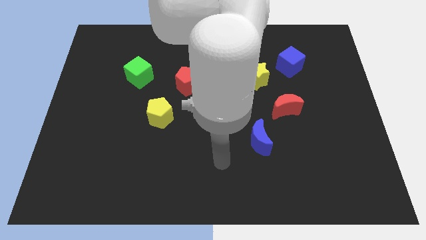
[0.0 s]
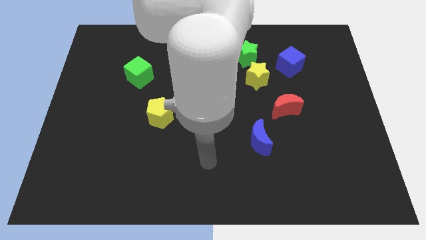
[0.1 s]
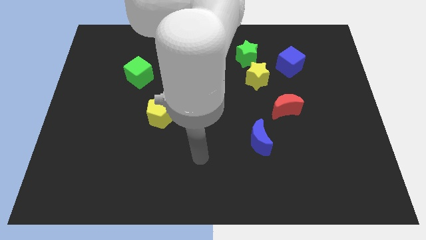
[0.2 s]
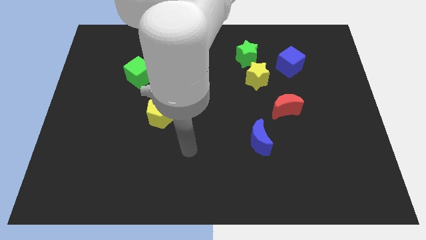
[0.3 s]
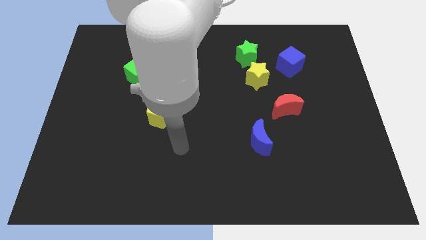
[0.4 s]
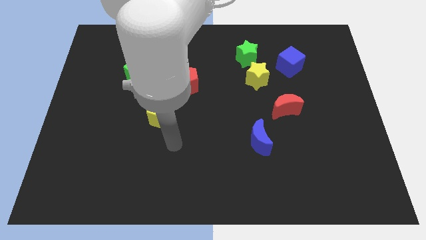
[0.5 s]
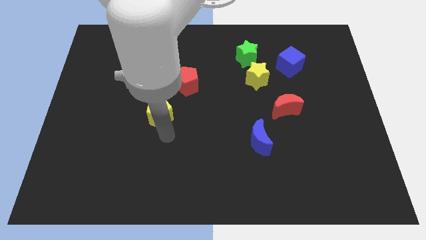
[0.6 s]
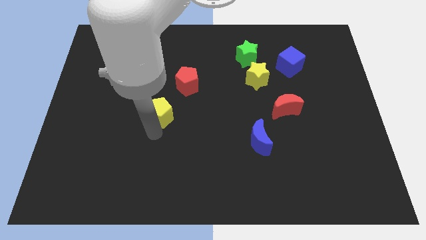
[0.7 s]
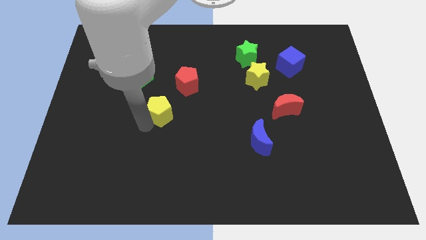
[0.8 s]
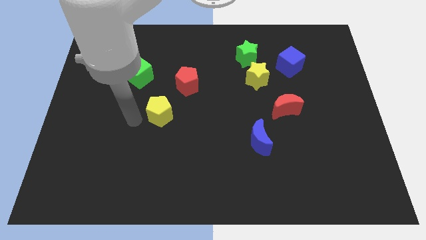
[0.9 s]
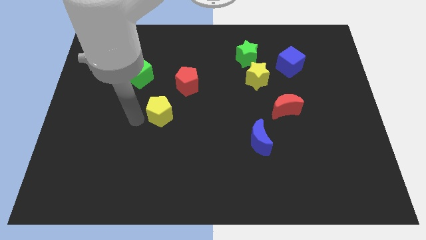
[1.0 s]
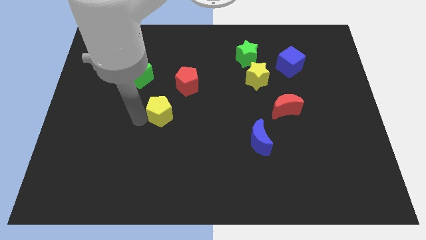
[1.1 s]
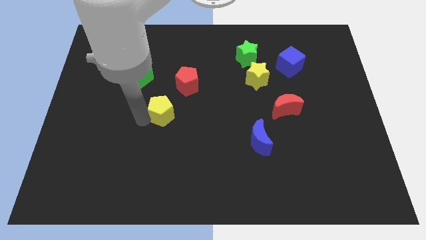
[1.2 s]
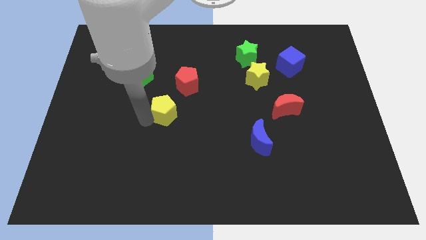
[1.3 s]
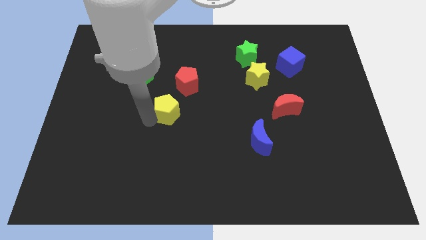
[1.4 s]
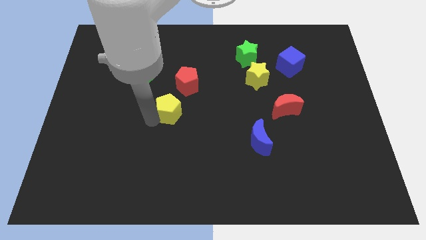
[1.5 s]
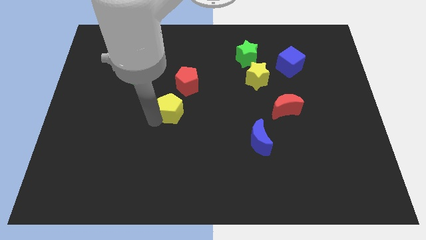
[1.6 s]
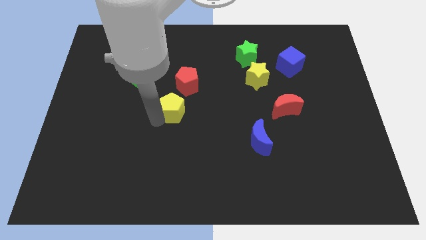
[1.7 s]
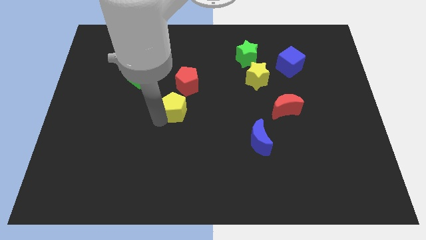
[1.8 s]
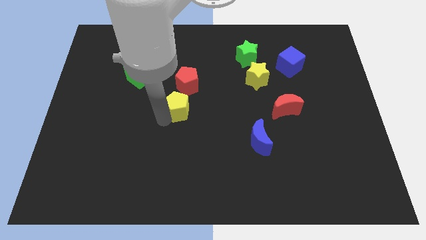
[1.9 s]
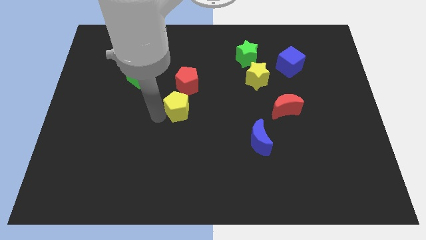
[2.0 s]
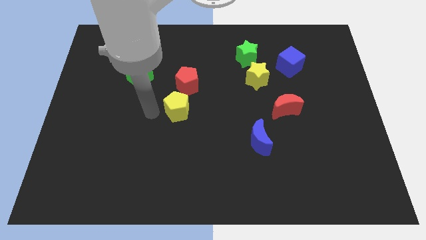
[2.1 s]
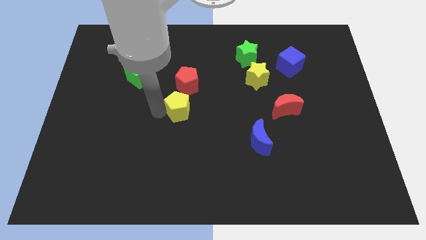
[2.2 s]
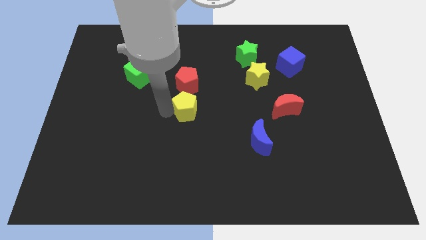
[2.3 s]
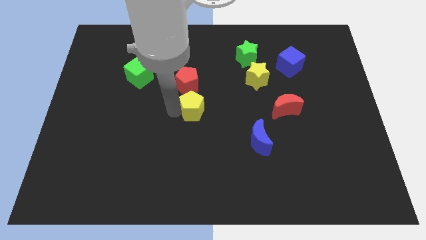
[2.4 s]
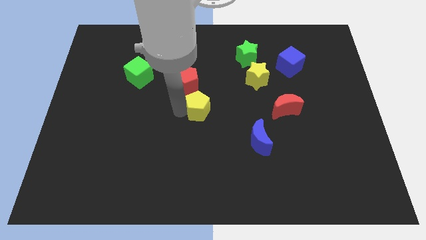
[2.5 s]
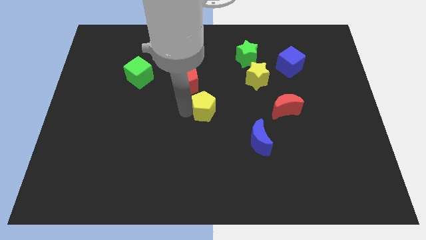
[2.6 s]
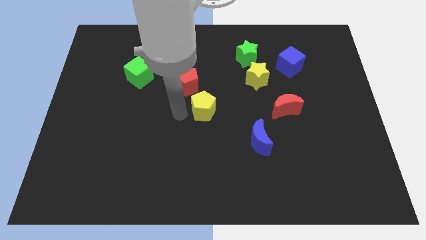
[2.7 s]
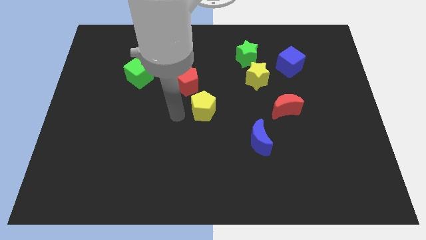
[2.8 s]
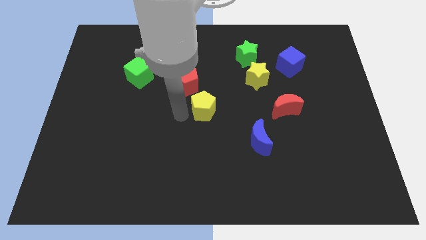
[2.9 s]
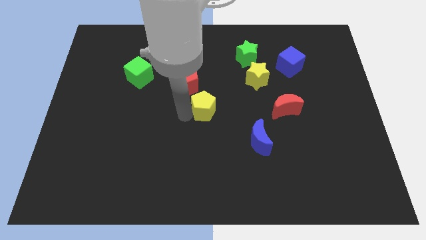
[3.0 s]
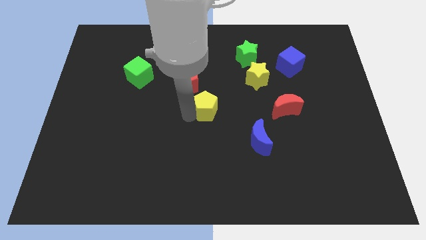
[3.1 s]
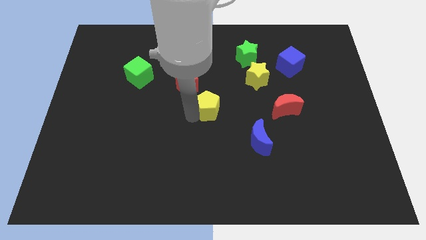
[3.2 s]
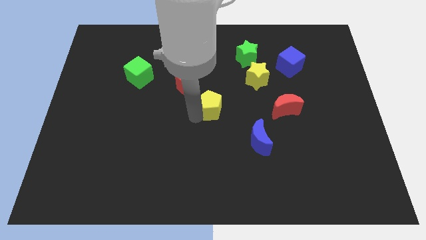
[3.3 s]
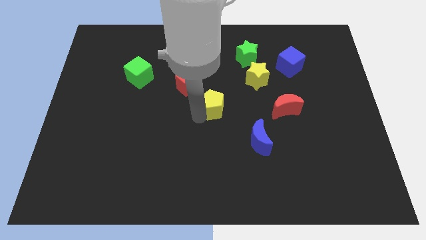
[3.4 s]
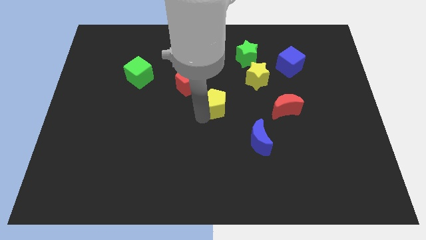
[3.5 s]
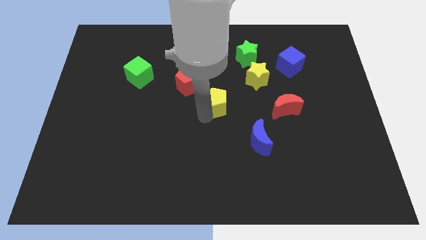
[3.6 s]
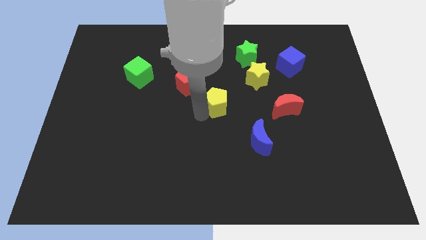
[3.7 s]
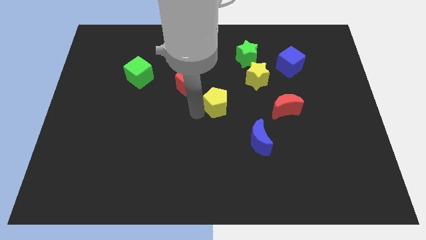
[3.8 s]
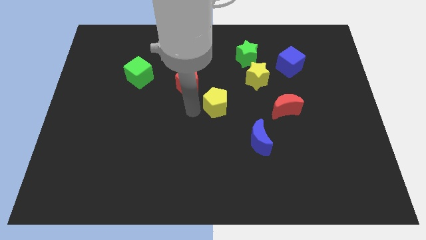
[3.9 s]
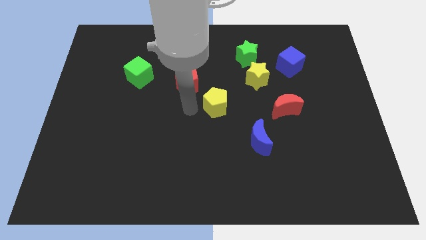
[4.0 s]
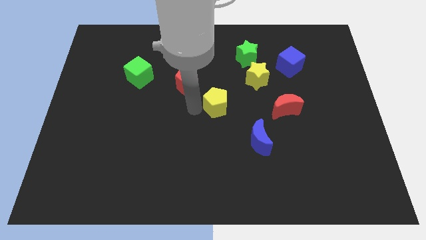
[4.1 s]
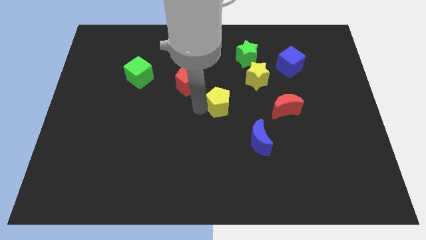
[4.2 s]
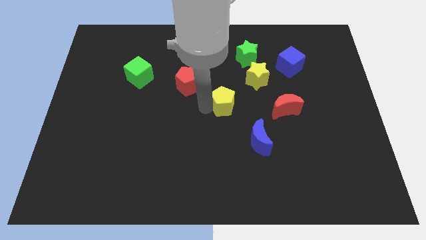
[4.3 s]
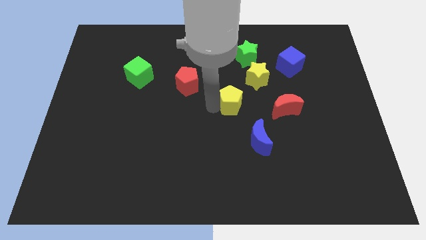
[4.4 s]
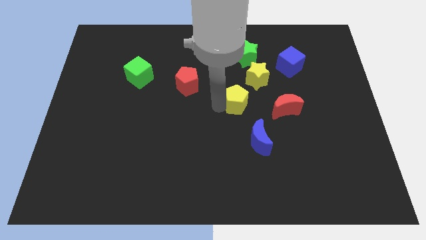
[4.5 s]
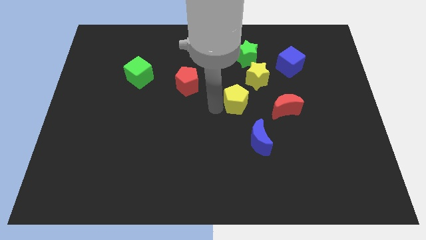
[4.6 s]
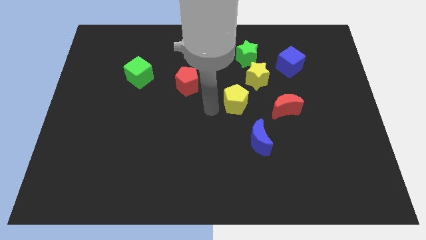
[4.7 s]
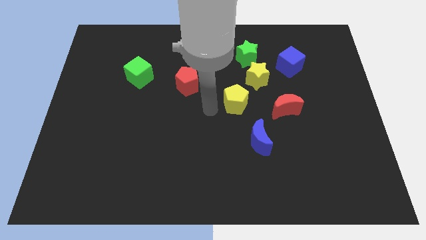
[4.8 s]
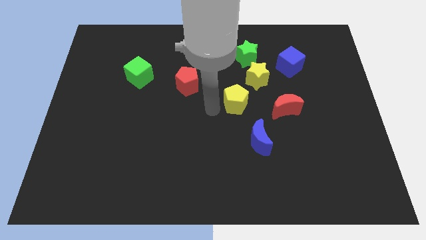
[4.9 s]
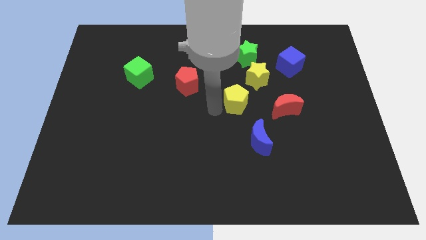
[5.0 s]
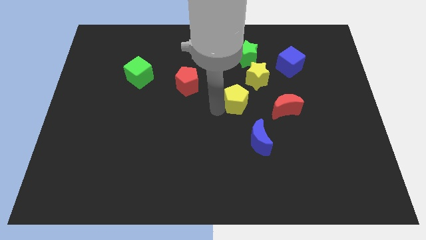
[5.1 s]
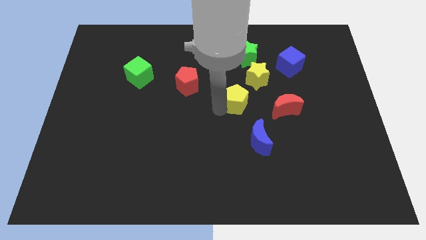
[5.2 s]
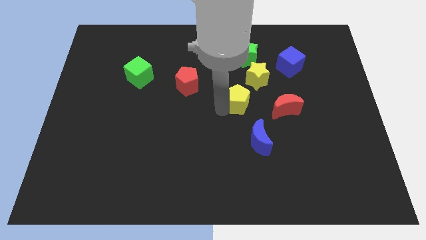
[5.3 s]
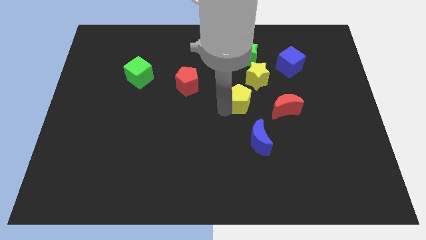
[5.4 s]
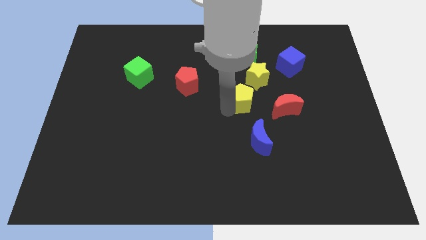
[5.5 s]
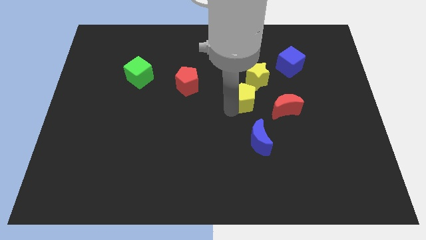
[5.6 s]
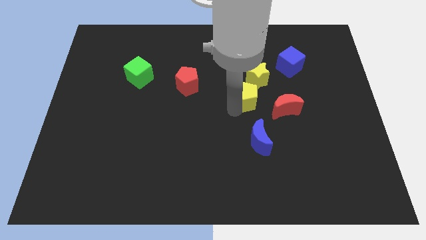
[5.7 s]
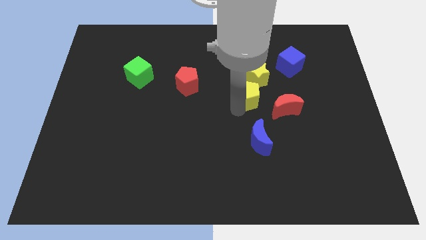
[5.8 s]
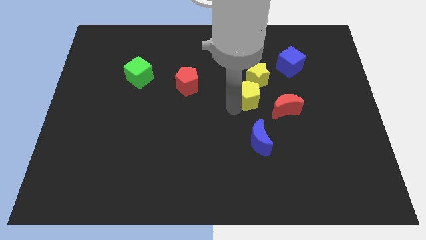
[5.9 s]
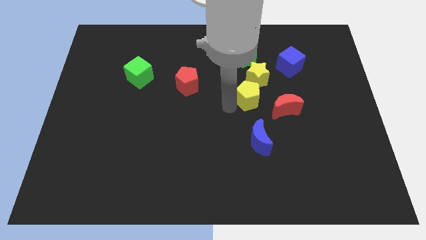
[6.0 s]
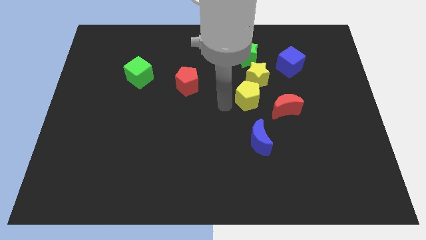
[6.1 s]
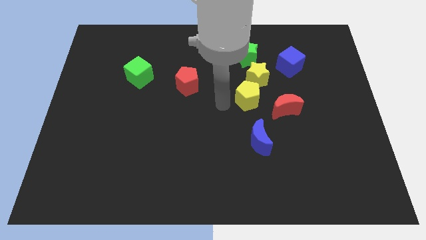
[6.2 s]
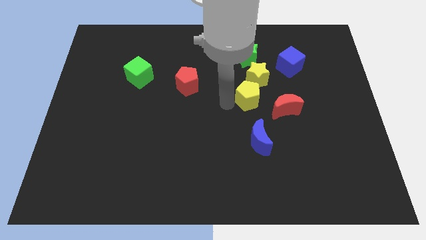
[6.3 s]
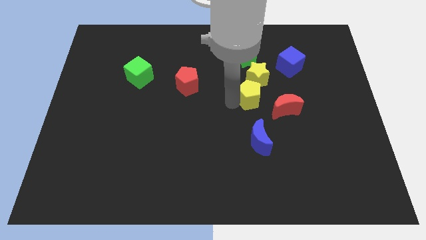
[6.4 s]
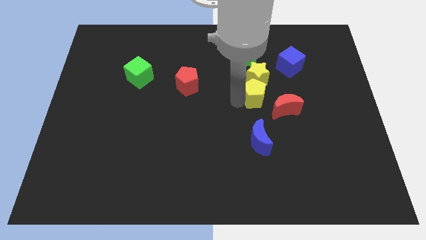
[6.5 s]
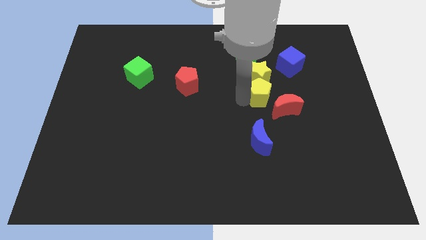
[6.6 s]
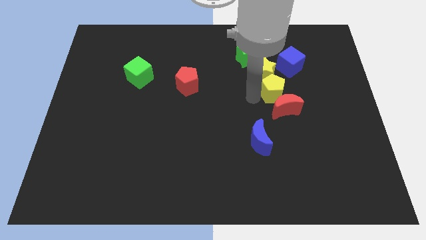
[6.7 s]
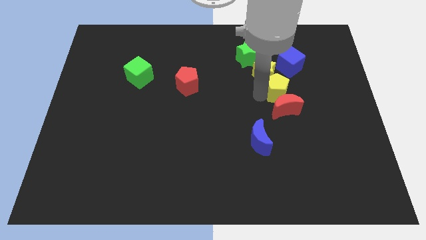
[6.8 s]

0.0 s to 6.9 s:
put the yellow pentagon diagonally up and to the right of the red moon

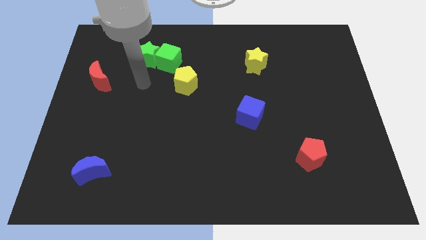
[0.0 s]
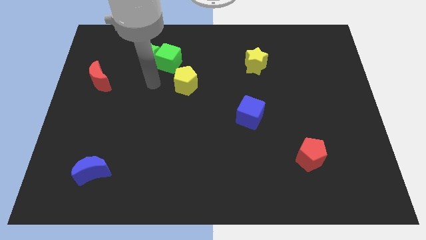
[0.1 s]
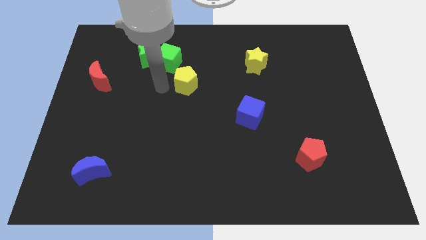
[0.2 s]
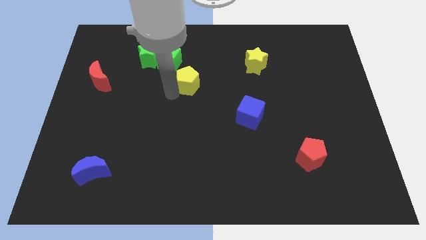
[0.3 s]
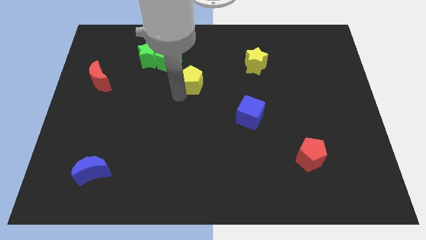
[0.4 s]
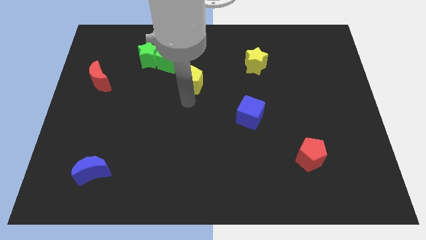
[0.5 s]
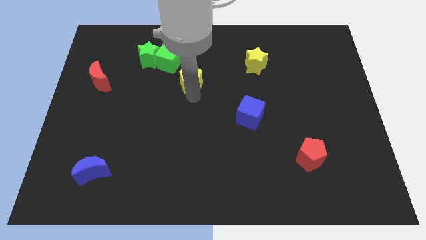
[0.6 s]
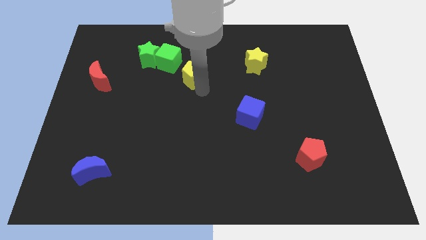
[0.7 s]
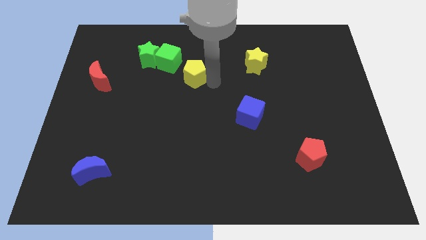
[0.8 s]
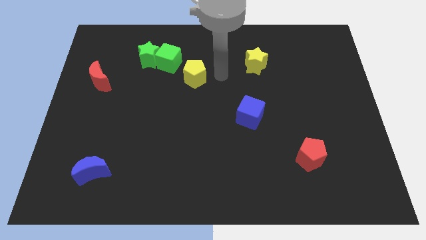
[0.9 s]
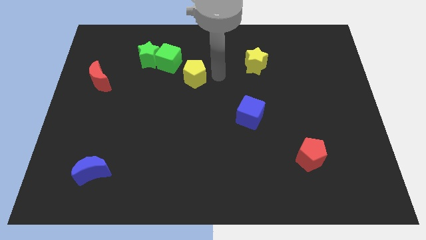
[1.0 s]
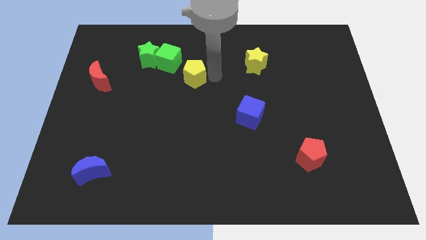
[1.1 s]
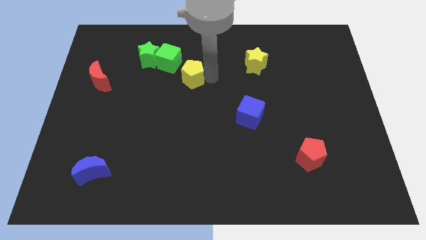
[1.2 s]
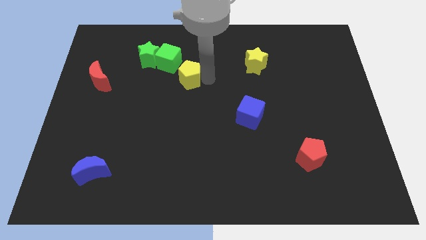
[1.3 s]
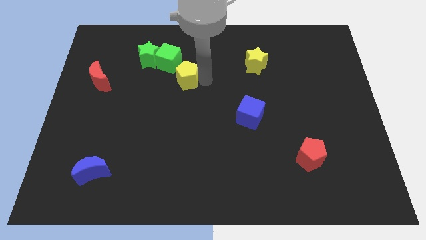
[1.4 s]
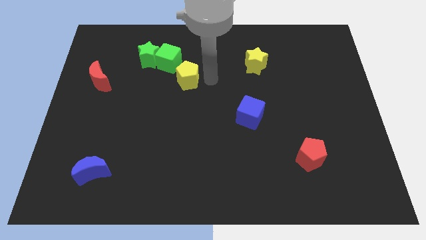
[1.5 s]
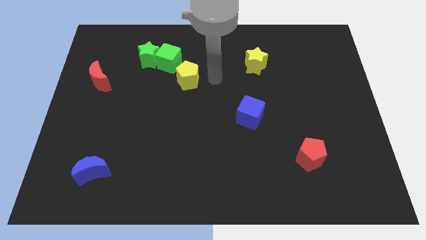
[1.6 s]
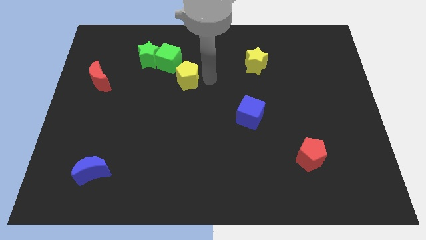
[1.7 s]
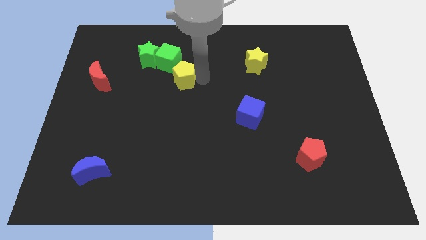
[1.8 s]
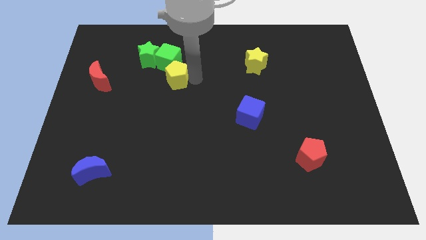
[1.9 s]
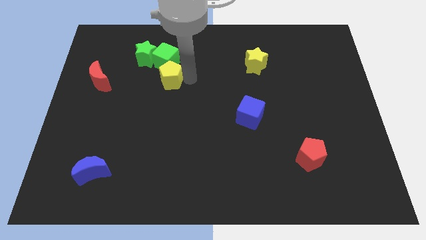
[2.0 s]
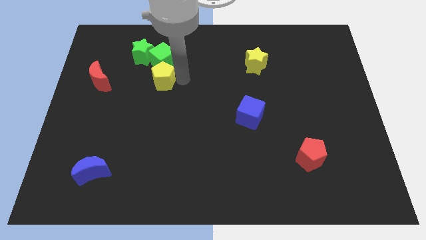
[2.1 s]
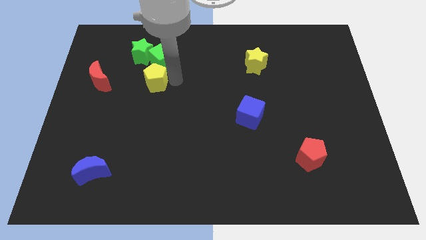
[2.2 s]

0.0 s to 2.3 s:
move the yellow pentagon to the bottom left of the green cube
